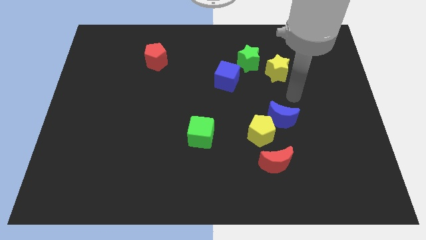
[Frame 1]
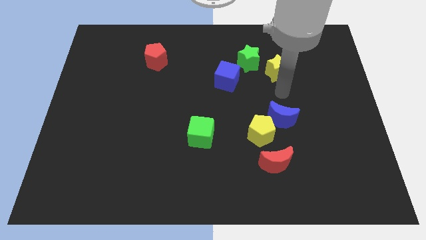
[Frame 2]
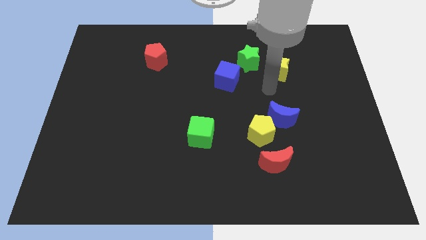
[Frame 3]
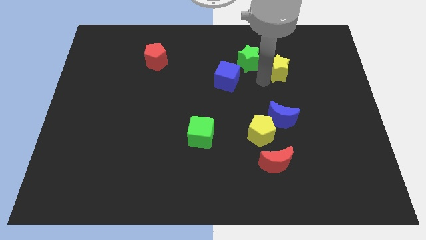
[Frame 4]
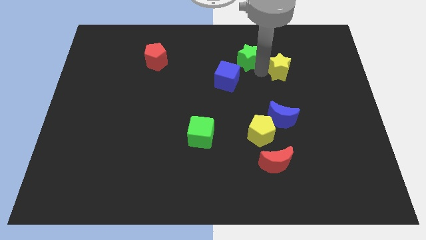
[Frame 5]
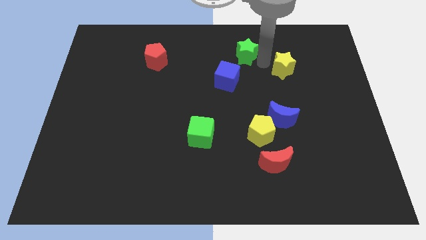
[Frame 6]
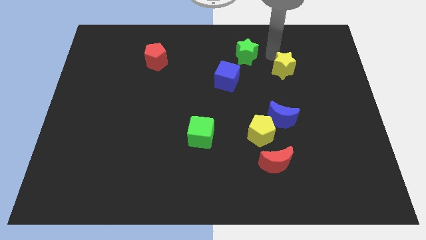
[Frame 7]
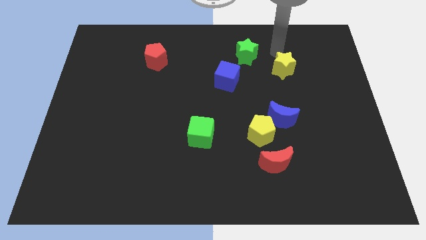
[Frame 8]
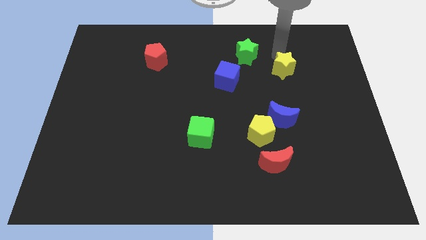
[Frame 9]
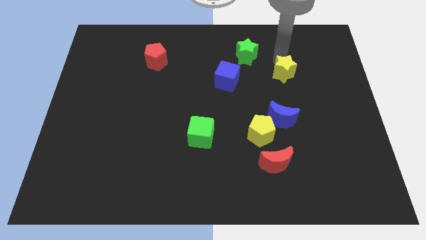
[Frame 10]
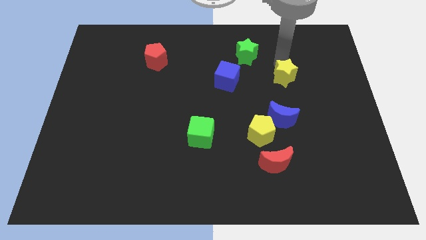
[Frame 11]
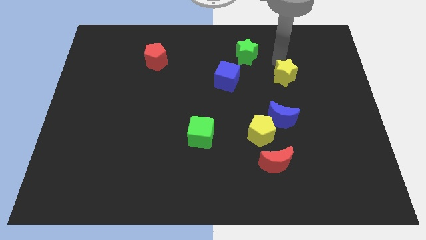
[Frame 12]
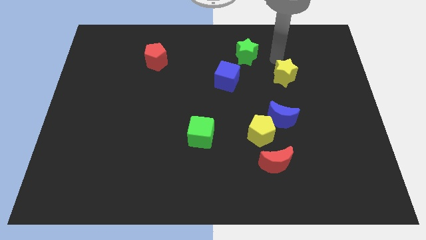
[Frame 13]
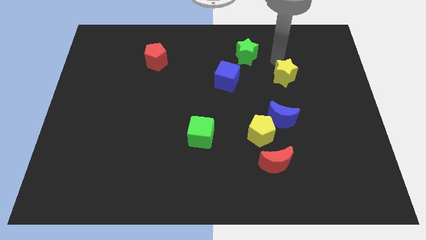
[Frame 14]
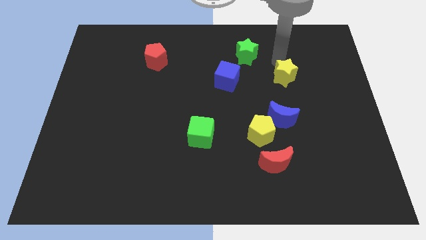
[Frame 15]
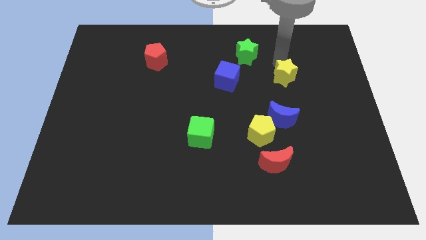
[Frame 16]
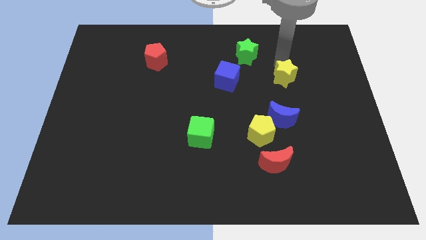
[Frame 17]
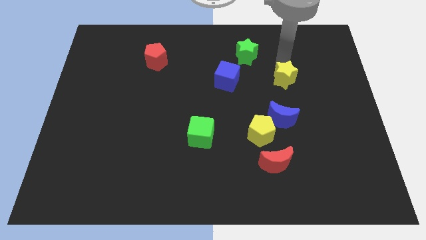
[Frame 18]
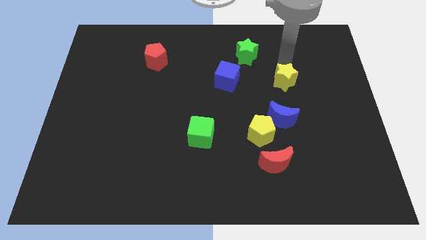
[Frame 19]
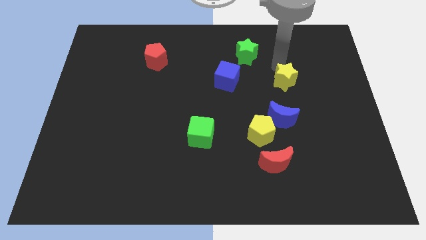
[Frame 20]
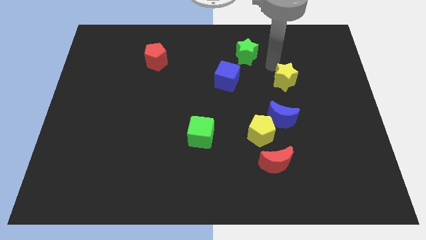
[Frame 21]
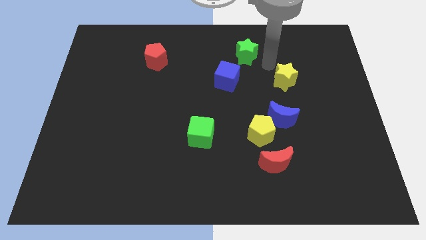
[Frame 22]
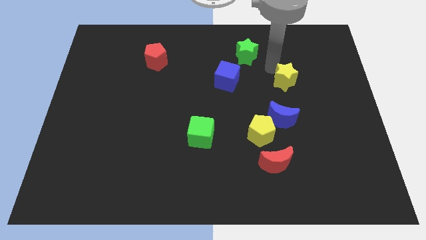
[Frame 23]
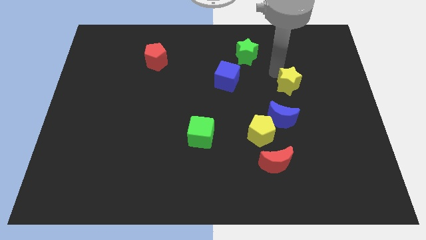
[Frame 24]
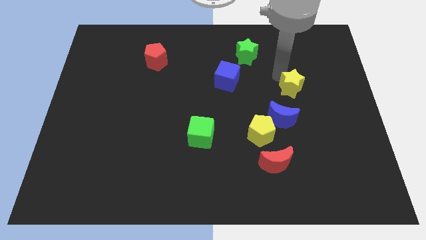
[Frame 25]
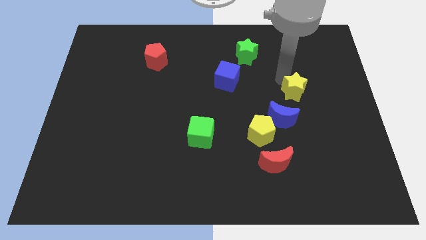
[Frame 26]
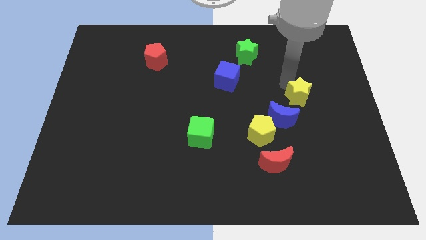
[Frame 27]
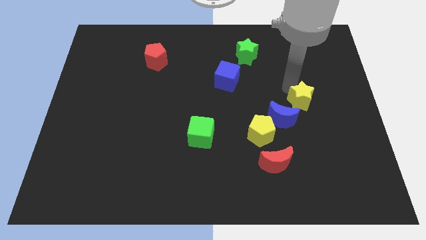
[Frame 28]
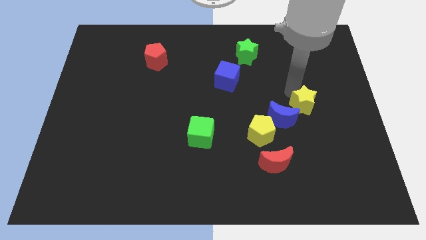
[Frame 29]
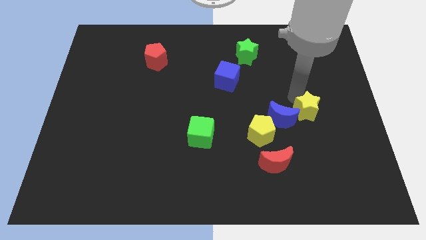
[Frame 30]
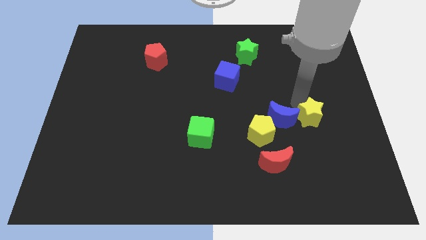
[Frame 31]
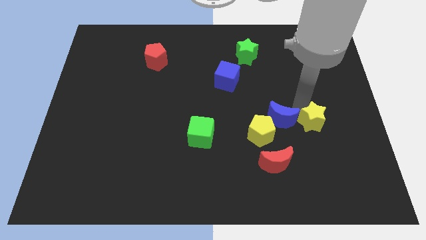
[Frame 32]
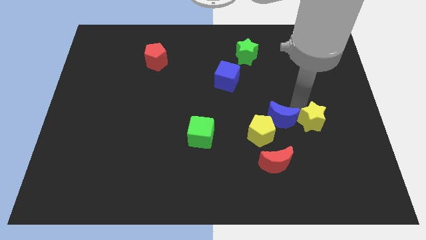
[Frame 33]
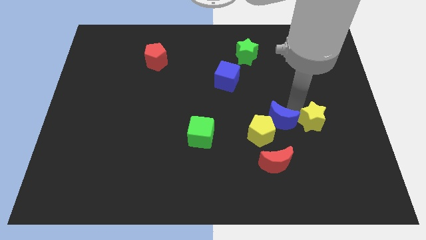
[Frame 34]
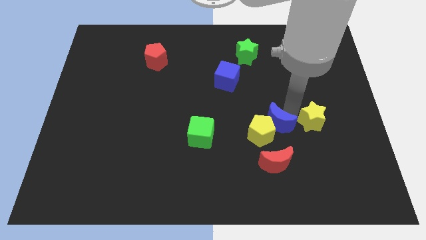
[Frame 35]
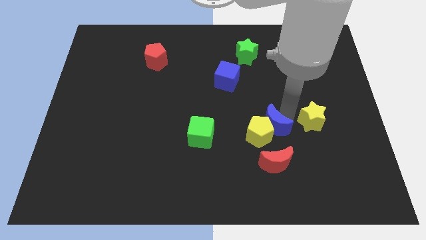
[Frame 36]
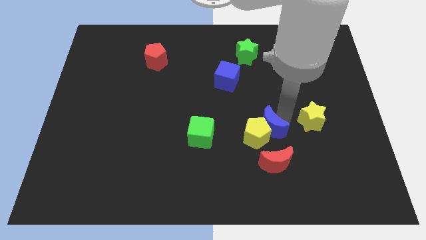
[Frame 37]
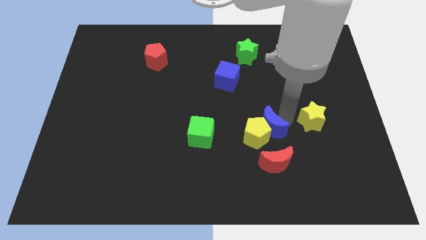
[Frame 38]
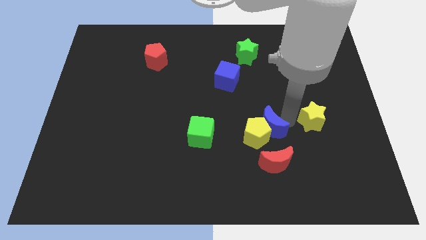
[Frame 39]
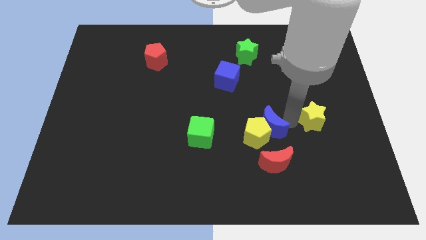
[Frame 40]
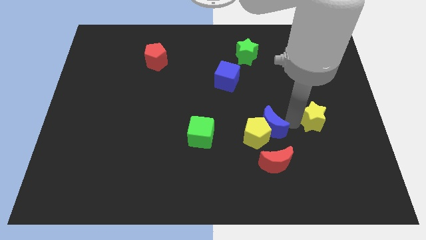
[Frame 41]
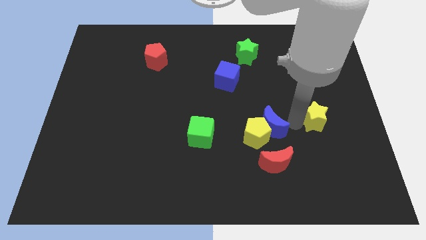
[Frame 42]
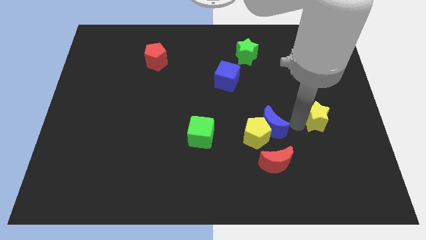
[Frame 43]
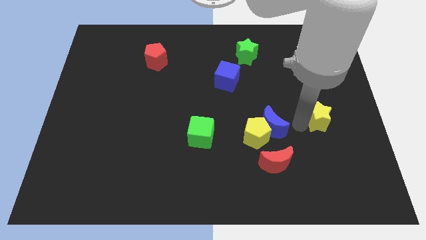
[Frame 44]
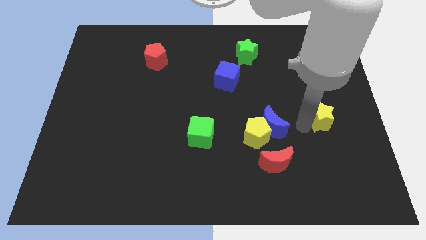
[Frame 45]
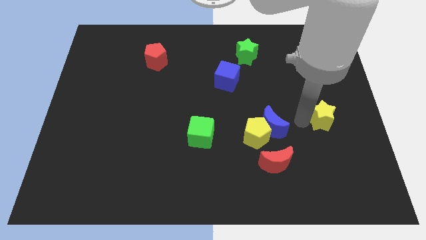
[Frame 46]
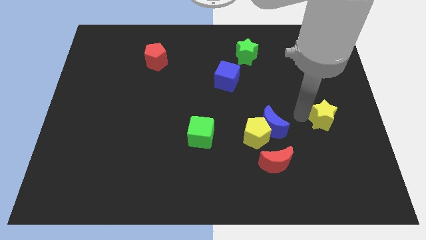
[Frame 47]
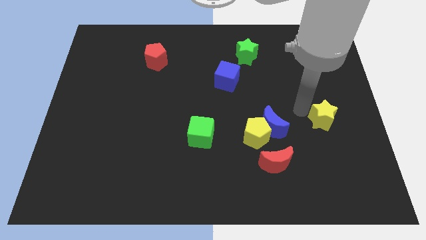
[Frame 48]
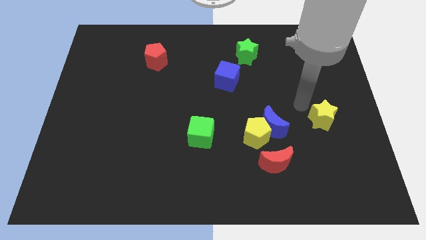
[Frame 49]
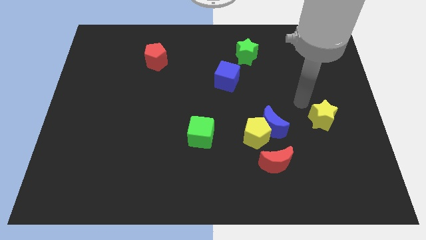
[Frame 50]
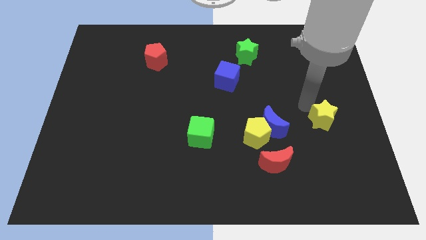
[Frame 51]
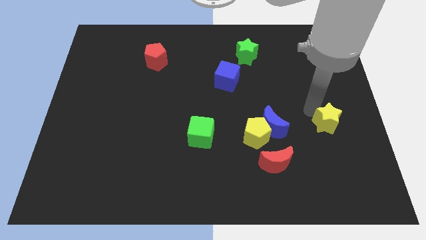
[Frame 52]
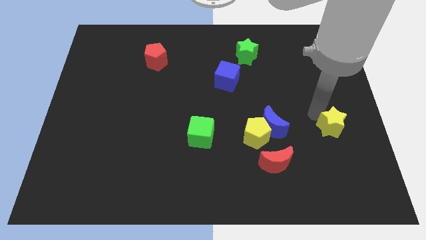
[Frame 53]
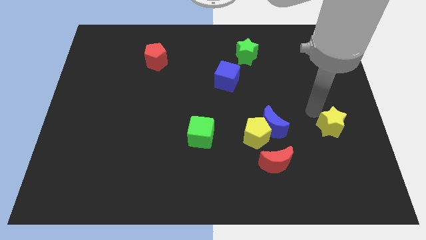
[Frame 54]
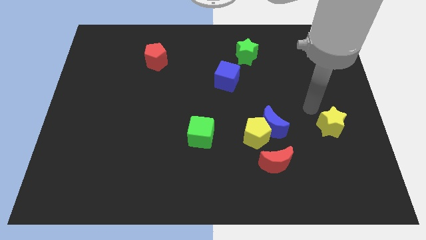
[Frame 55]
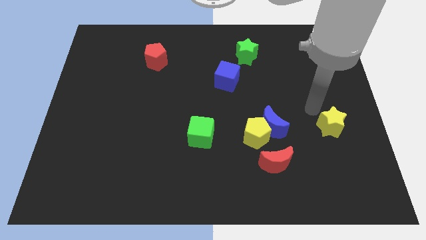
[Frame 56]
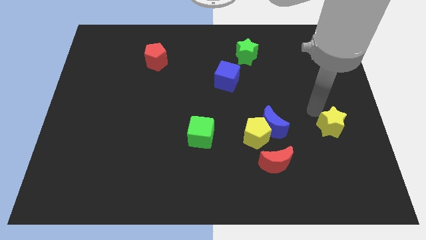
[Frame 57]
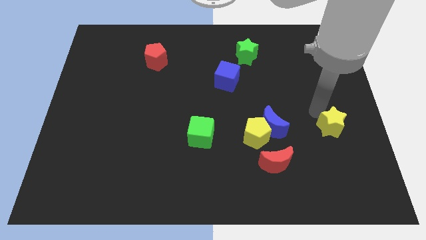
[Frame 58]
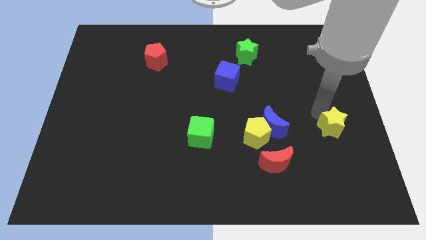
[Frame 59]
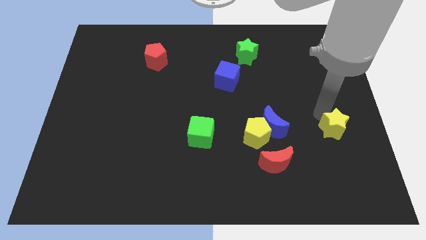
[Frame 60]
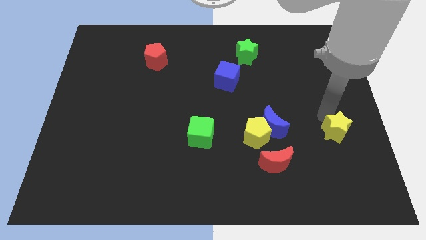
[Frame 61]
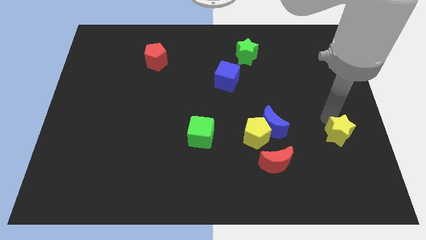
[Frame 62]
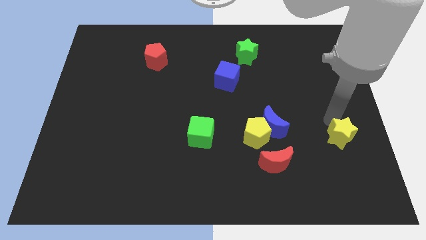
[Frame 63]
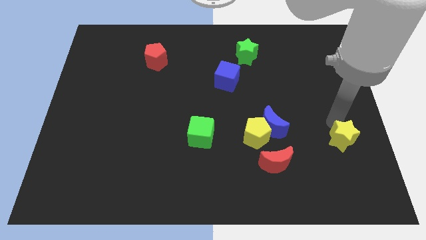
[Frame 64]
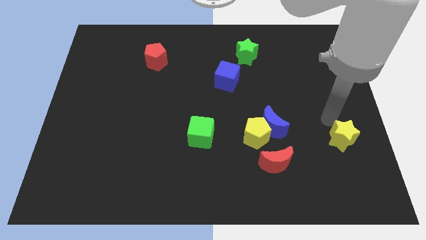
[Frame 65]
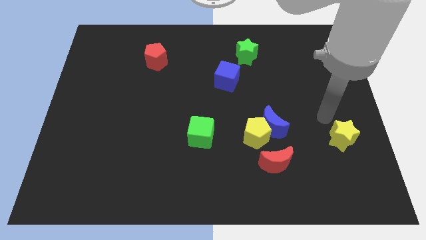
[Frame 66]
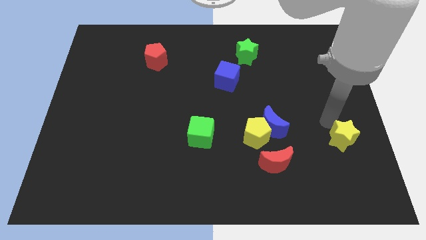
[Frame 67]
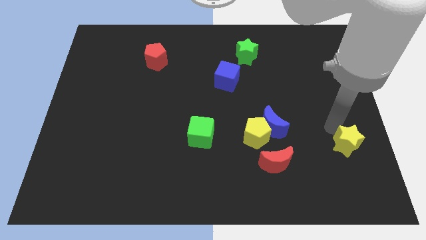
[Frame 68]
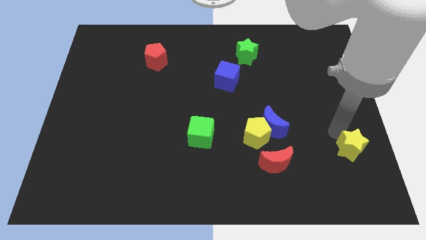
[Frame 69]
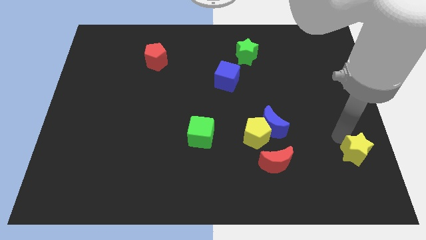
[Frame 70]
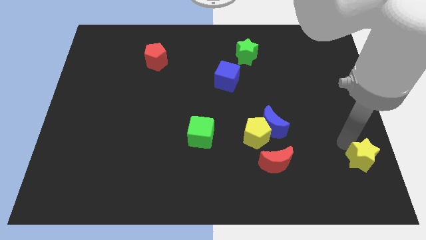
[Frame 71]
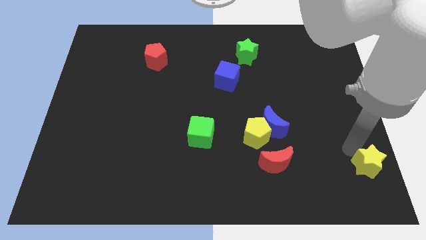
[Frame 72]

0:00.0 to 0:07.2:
slide the yellow star to the bottom right of the board

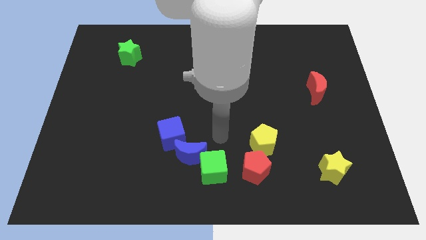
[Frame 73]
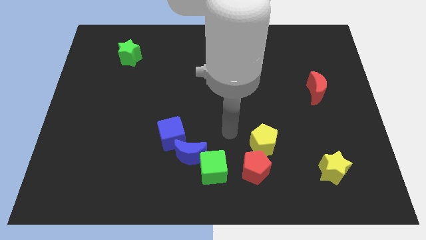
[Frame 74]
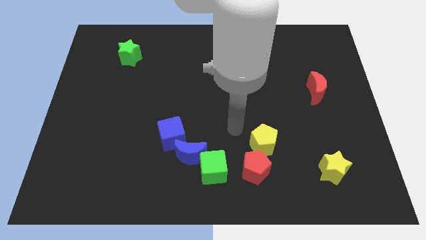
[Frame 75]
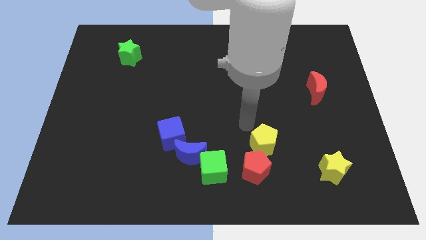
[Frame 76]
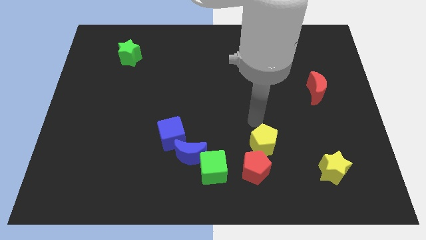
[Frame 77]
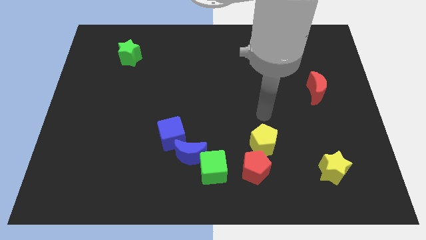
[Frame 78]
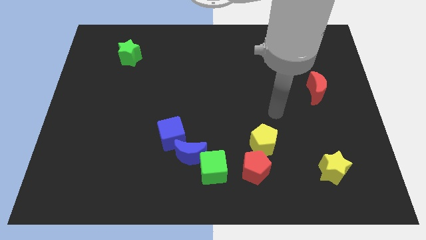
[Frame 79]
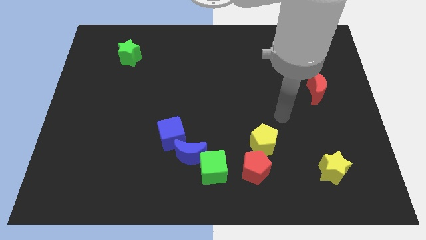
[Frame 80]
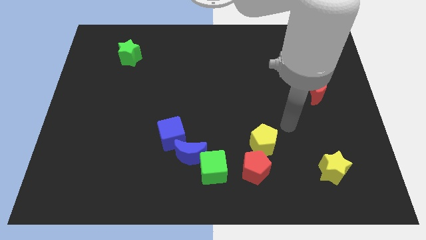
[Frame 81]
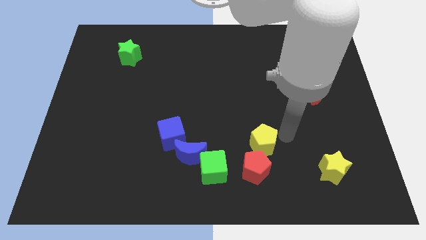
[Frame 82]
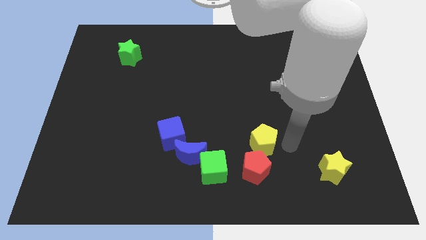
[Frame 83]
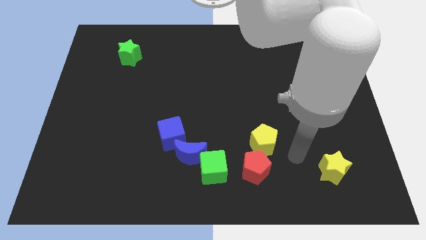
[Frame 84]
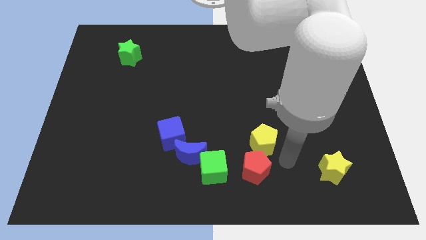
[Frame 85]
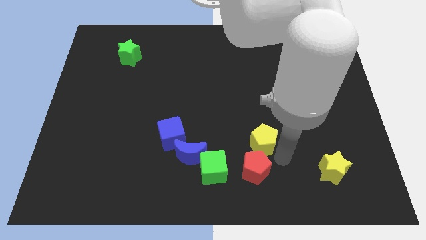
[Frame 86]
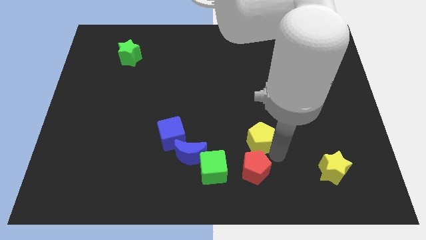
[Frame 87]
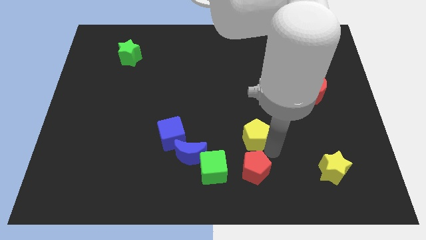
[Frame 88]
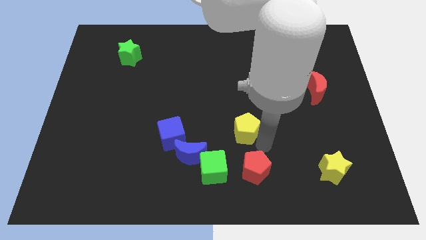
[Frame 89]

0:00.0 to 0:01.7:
push the yellow pentagon to the center of the board
